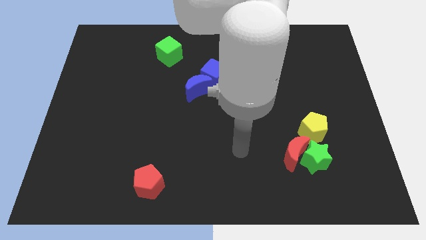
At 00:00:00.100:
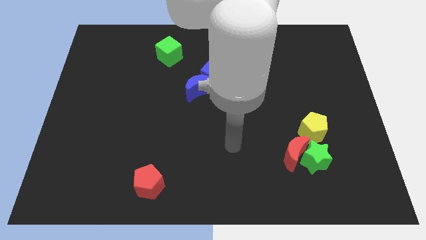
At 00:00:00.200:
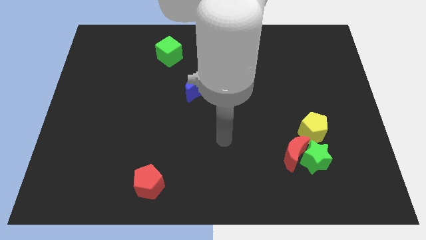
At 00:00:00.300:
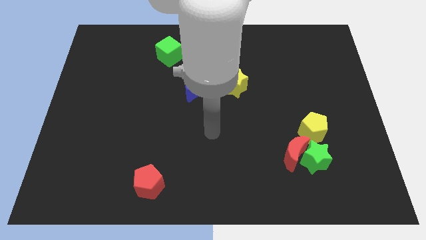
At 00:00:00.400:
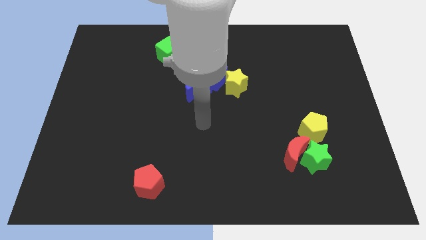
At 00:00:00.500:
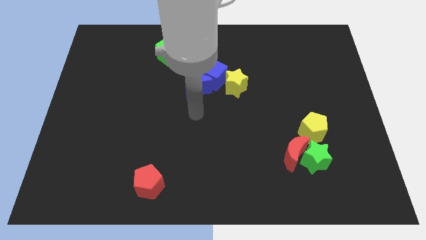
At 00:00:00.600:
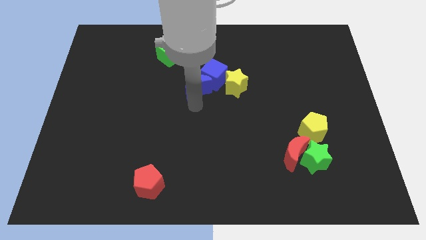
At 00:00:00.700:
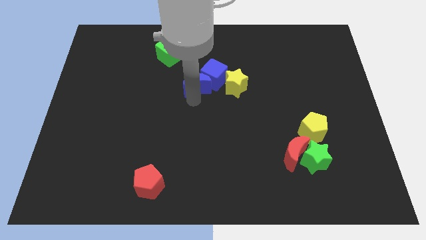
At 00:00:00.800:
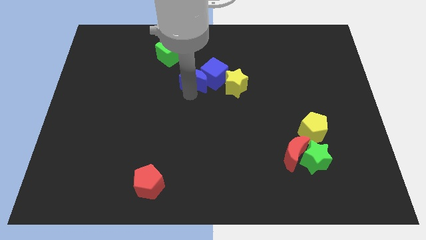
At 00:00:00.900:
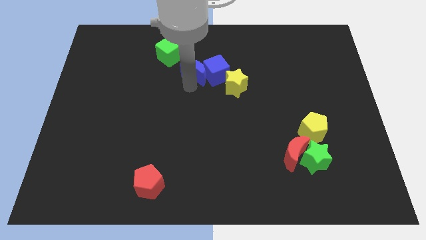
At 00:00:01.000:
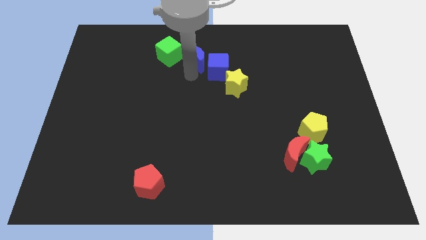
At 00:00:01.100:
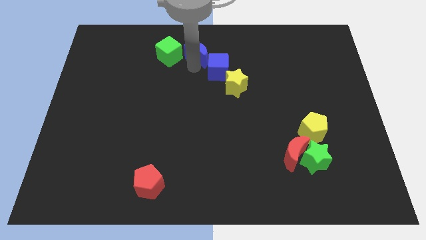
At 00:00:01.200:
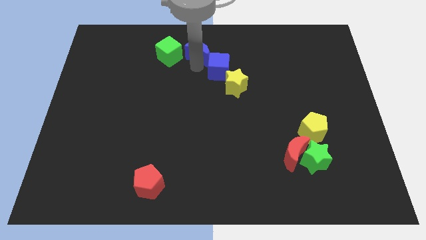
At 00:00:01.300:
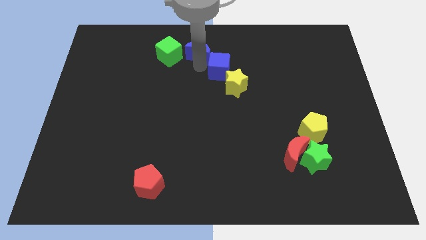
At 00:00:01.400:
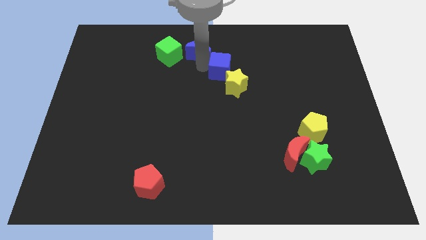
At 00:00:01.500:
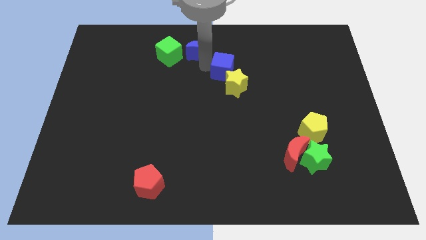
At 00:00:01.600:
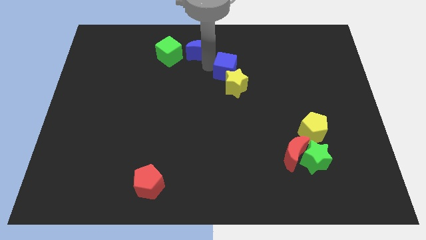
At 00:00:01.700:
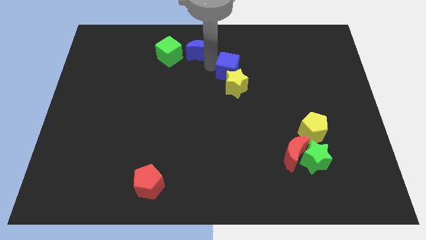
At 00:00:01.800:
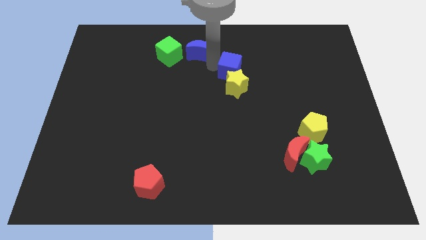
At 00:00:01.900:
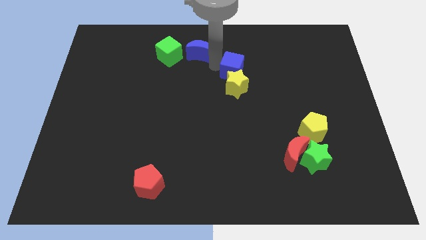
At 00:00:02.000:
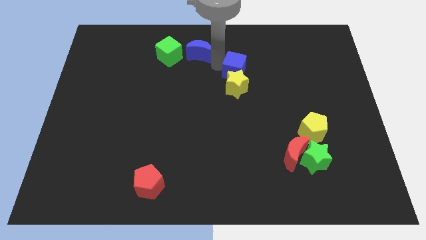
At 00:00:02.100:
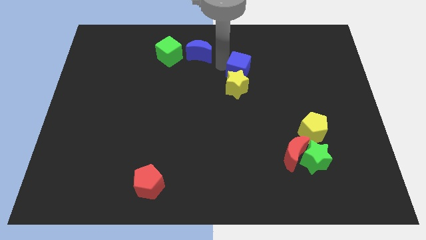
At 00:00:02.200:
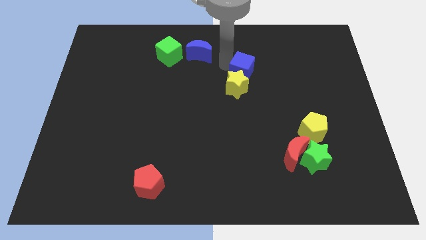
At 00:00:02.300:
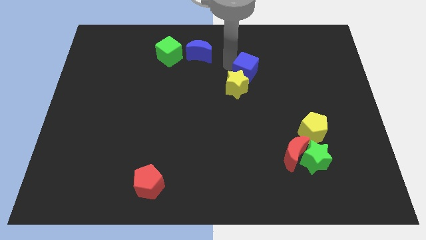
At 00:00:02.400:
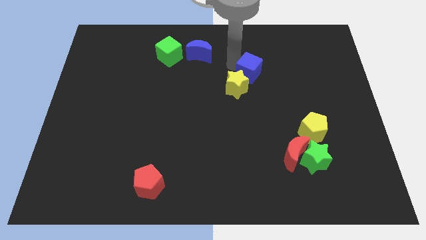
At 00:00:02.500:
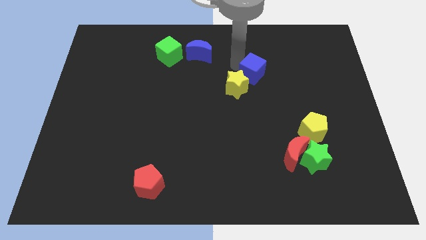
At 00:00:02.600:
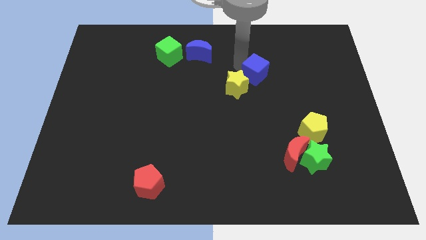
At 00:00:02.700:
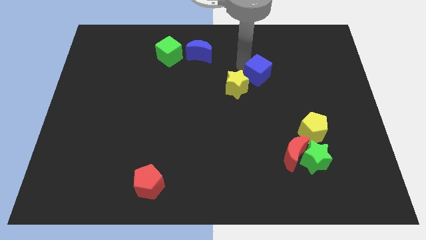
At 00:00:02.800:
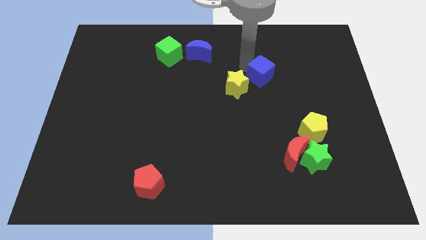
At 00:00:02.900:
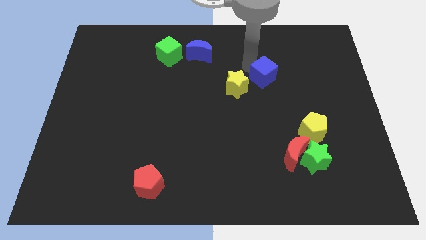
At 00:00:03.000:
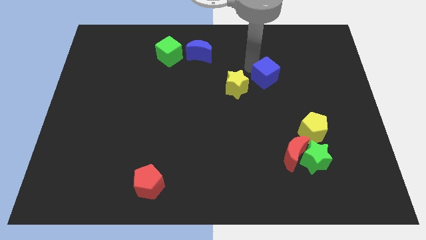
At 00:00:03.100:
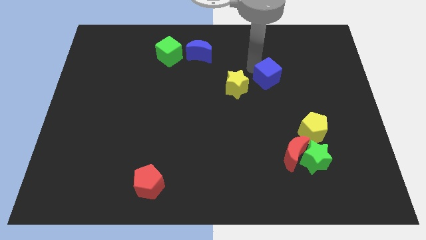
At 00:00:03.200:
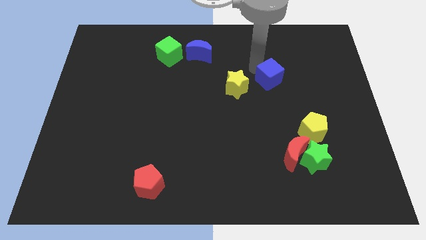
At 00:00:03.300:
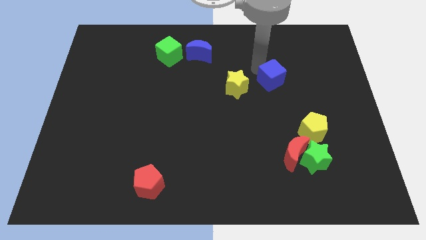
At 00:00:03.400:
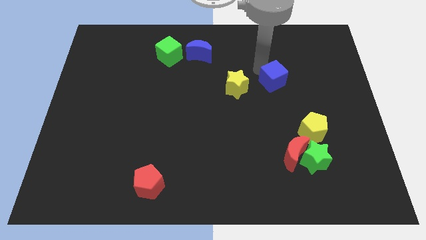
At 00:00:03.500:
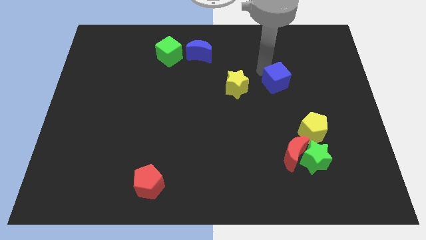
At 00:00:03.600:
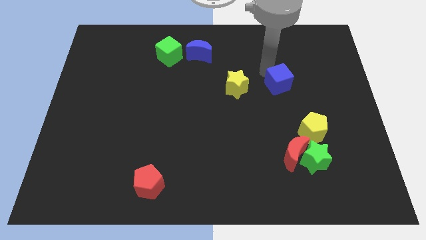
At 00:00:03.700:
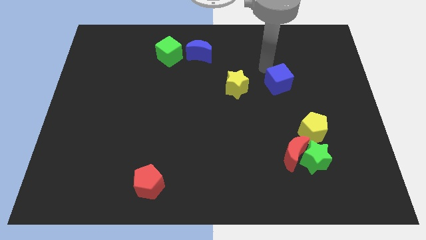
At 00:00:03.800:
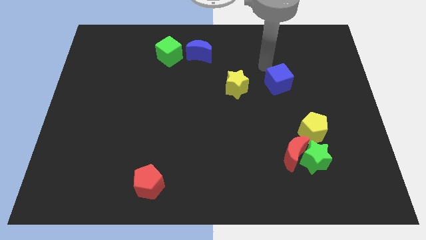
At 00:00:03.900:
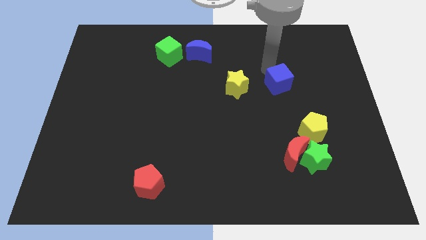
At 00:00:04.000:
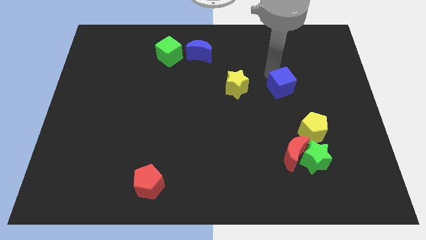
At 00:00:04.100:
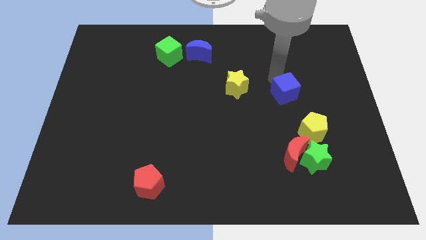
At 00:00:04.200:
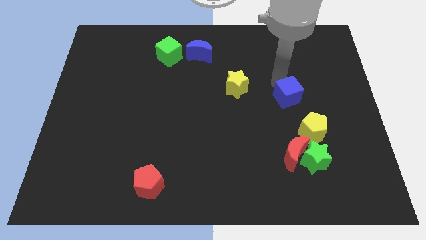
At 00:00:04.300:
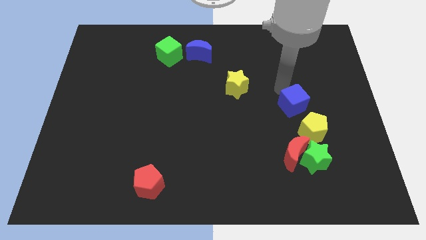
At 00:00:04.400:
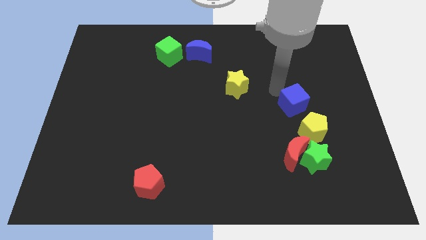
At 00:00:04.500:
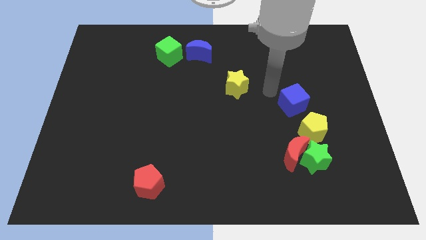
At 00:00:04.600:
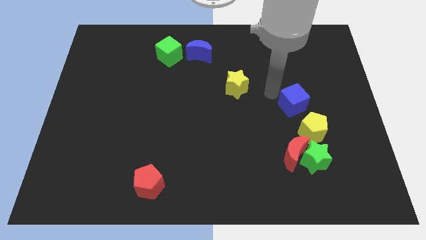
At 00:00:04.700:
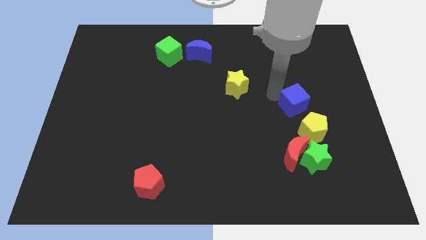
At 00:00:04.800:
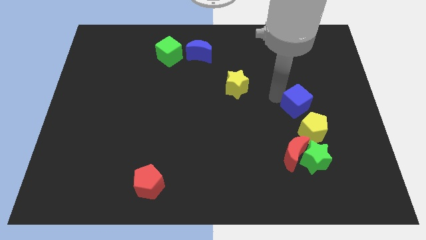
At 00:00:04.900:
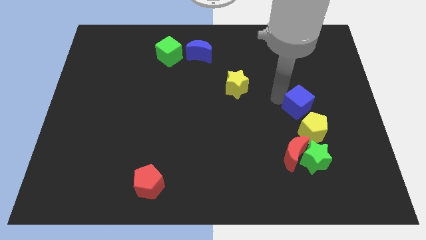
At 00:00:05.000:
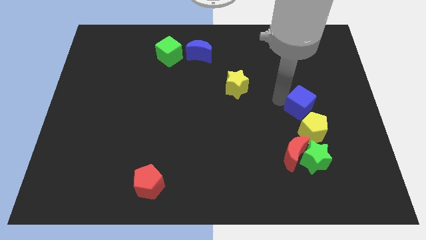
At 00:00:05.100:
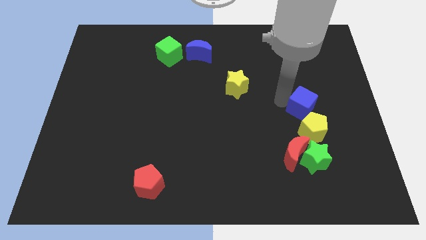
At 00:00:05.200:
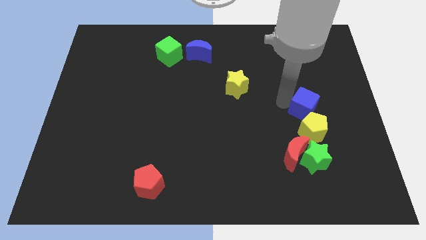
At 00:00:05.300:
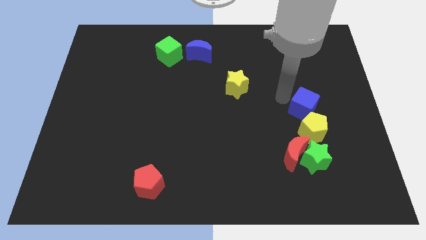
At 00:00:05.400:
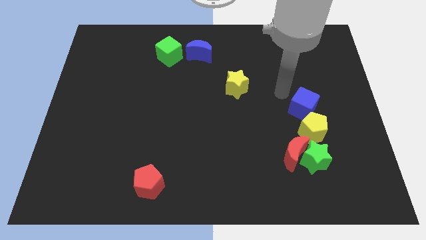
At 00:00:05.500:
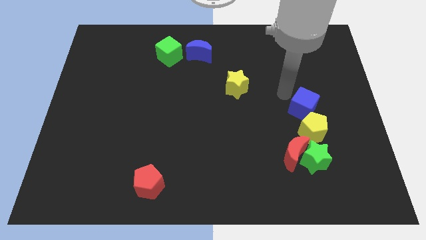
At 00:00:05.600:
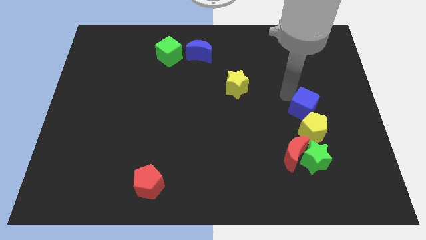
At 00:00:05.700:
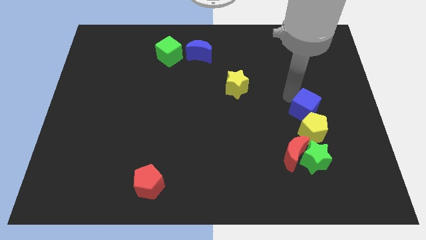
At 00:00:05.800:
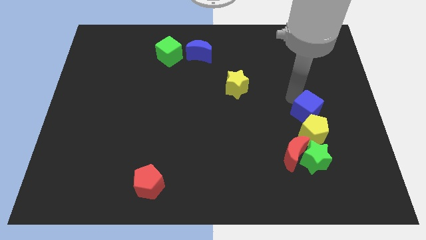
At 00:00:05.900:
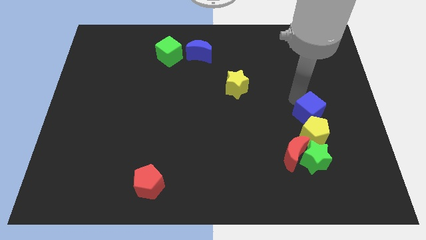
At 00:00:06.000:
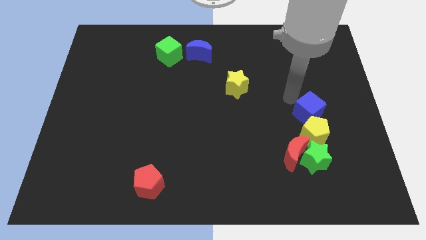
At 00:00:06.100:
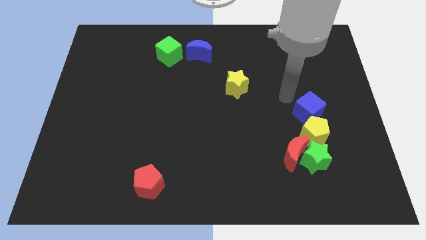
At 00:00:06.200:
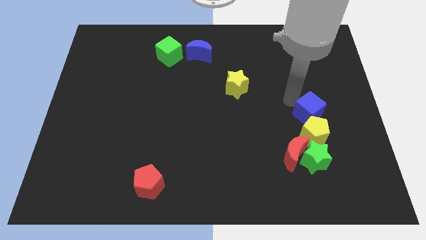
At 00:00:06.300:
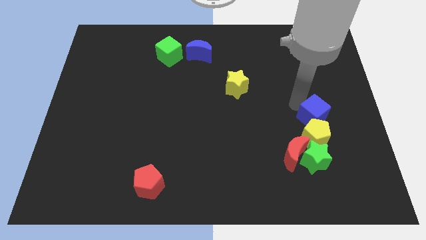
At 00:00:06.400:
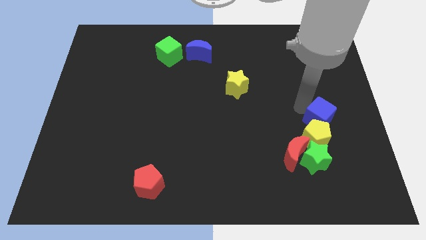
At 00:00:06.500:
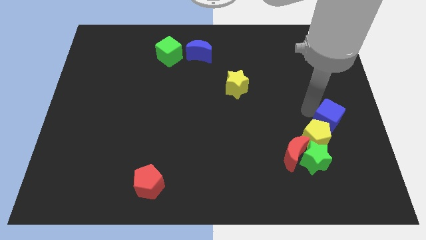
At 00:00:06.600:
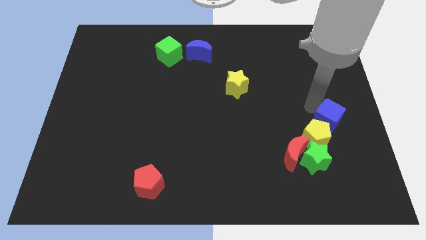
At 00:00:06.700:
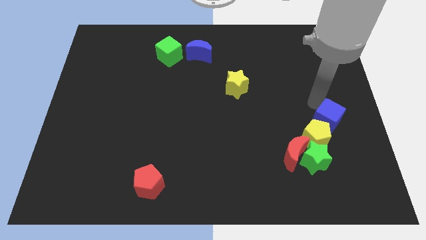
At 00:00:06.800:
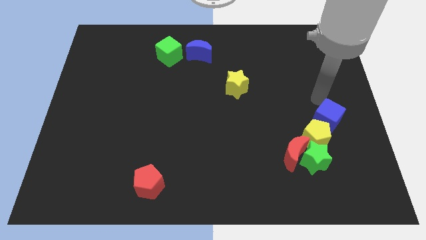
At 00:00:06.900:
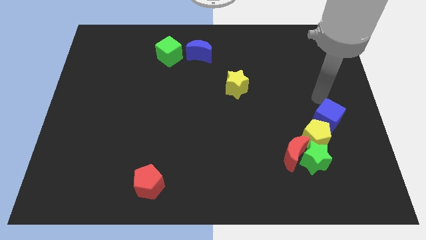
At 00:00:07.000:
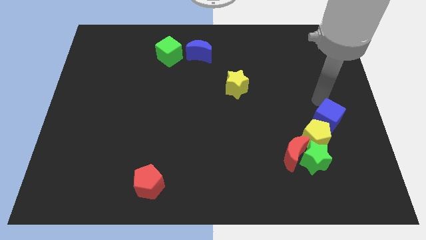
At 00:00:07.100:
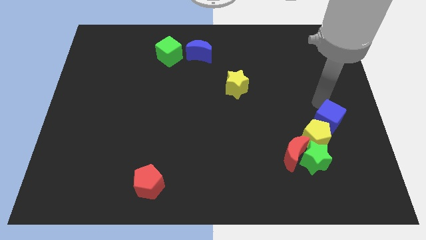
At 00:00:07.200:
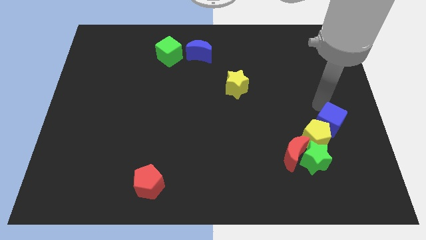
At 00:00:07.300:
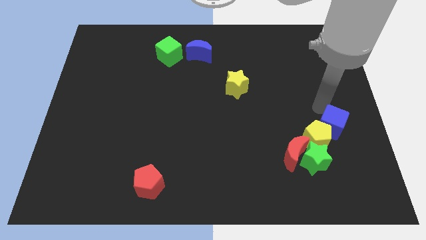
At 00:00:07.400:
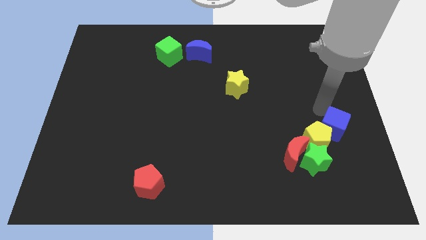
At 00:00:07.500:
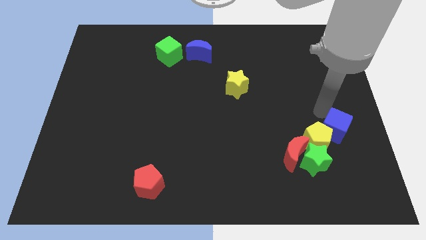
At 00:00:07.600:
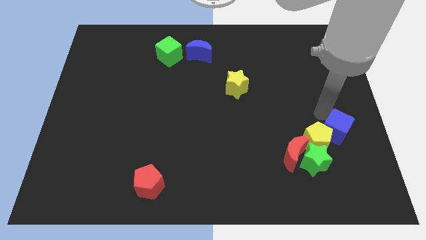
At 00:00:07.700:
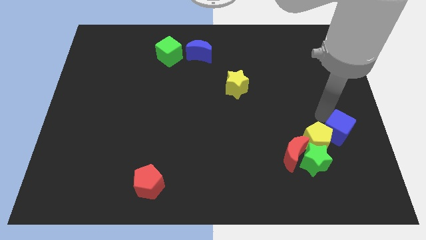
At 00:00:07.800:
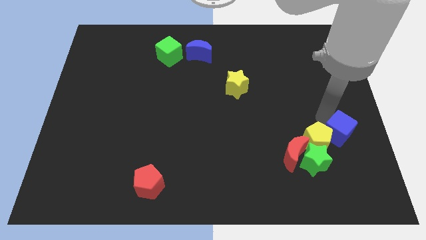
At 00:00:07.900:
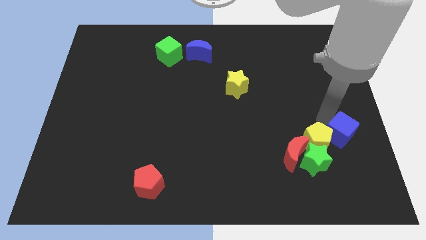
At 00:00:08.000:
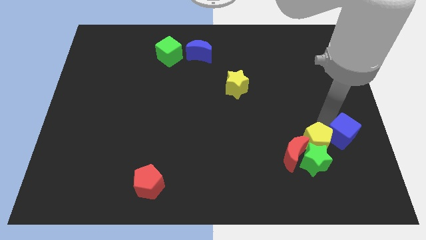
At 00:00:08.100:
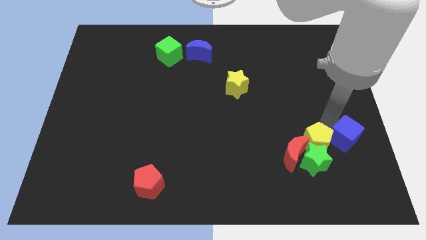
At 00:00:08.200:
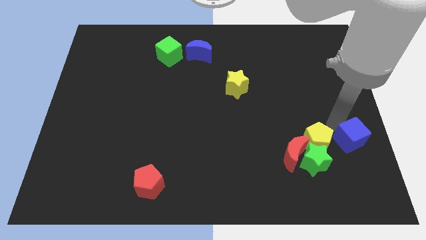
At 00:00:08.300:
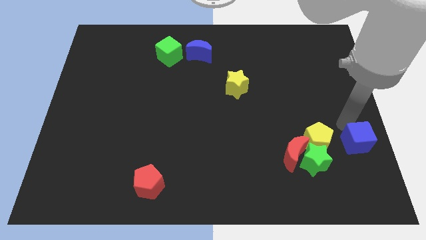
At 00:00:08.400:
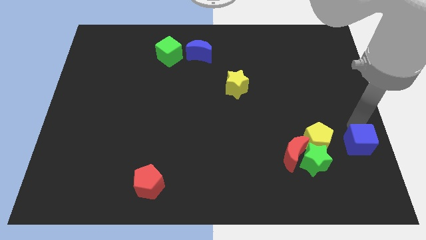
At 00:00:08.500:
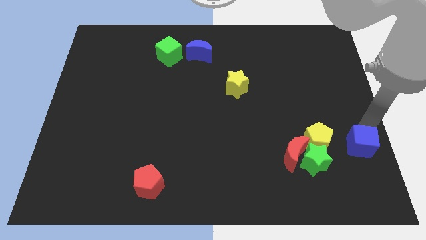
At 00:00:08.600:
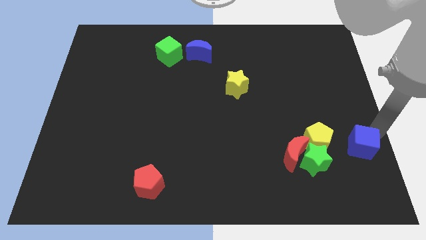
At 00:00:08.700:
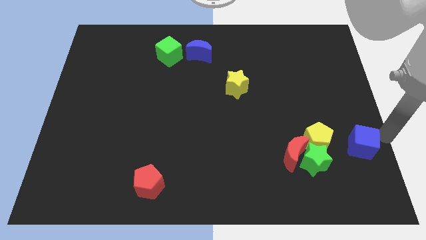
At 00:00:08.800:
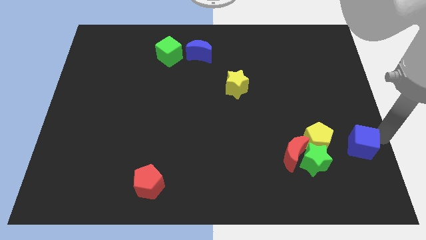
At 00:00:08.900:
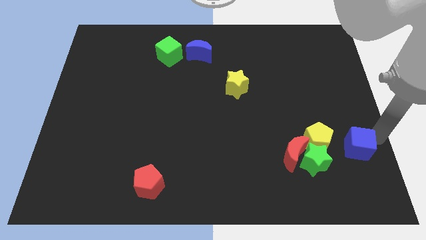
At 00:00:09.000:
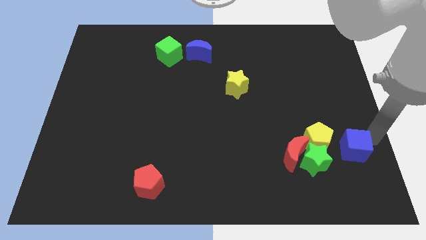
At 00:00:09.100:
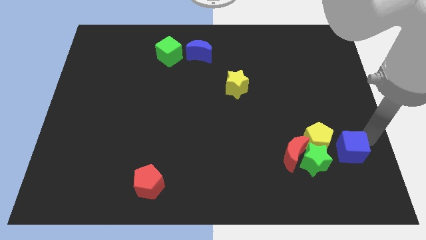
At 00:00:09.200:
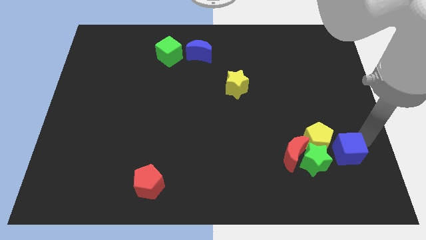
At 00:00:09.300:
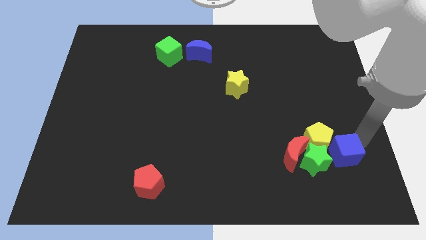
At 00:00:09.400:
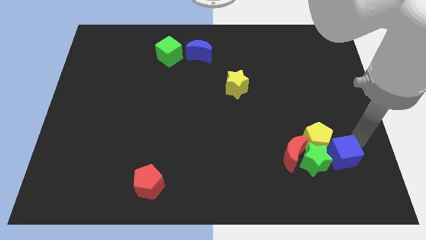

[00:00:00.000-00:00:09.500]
push the blue cube to the green star
